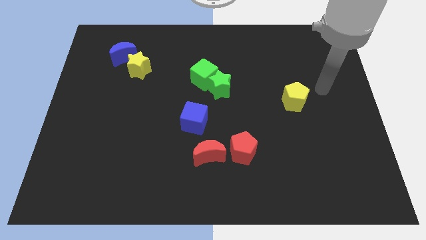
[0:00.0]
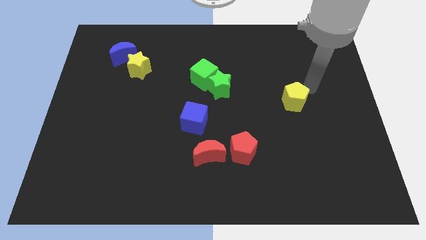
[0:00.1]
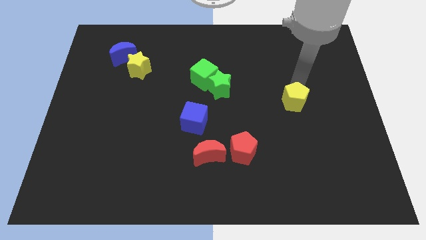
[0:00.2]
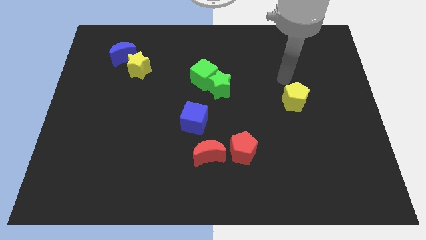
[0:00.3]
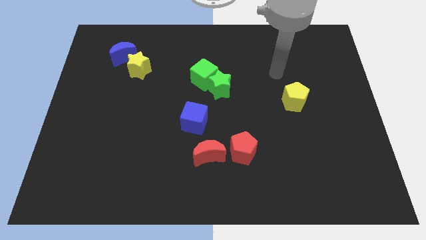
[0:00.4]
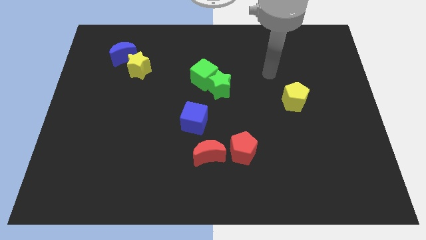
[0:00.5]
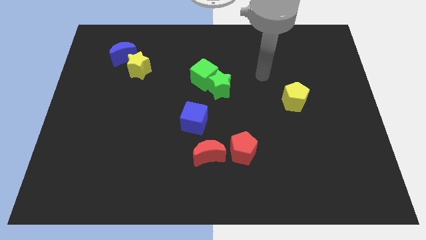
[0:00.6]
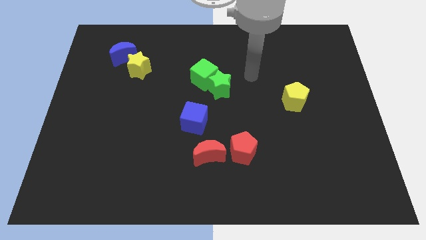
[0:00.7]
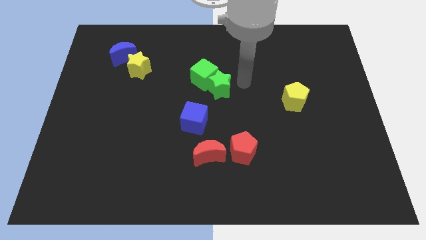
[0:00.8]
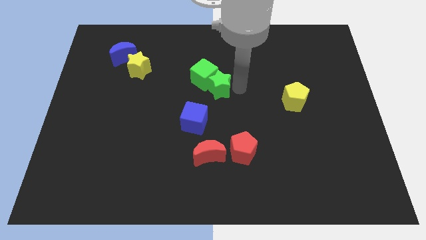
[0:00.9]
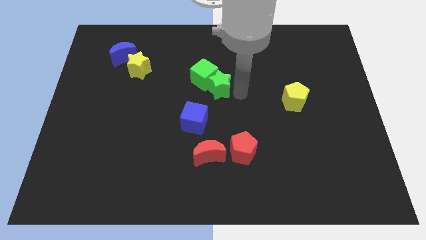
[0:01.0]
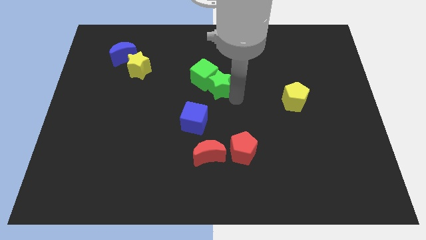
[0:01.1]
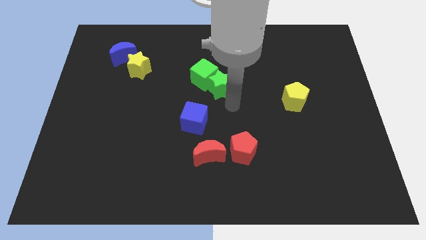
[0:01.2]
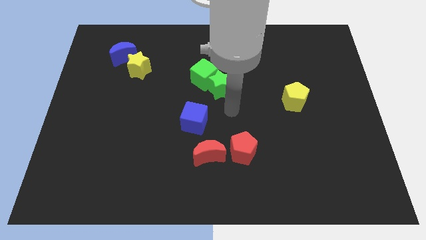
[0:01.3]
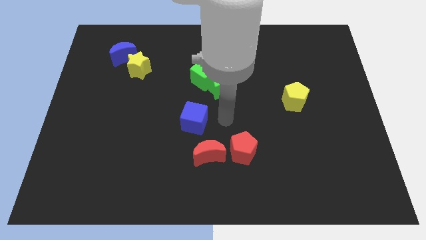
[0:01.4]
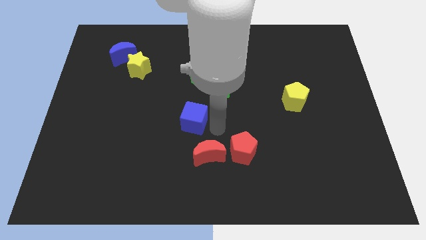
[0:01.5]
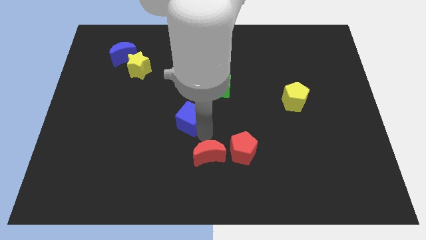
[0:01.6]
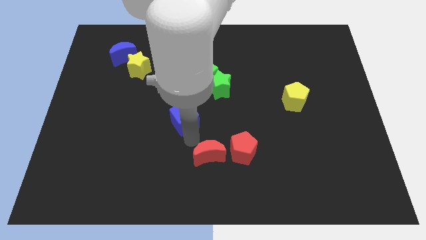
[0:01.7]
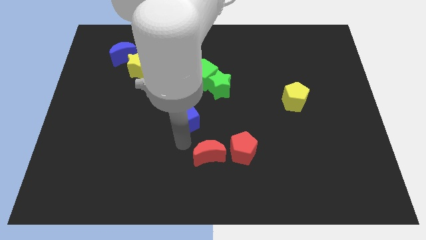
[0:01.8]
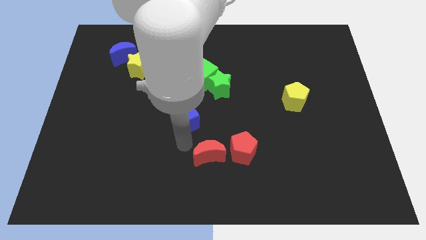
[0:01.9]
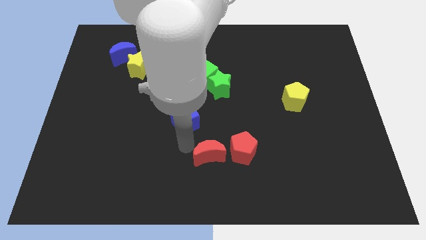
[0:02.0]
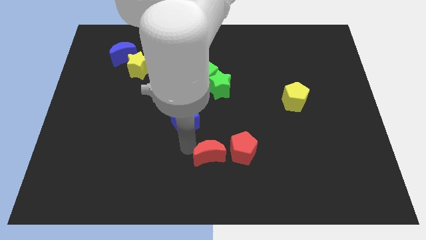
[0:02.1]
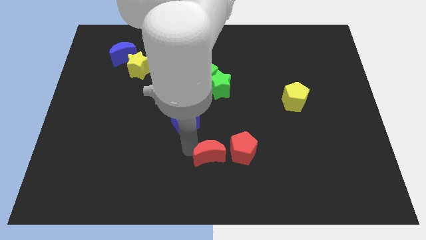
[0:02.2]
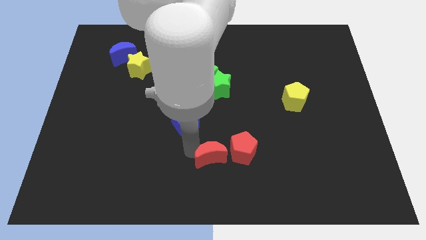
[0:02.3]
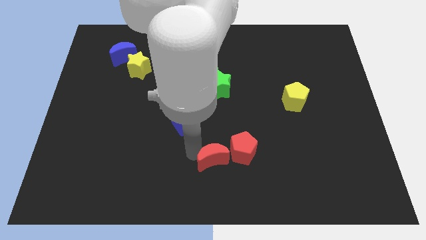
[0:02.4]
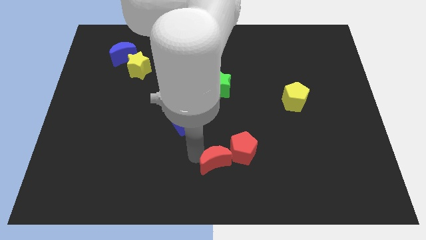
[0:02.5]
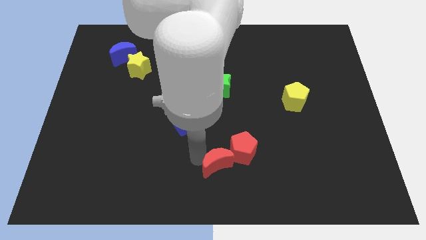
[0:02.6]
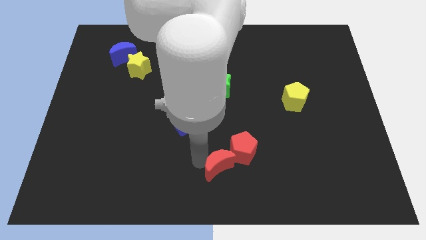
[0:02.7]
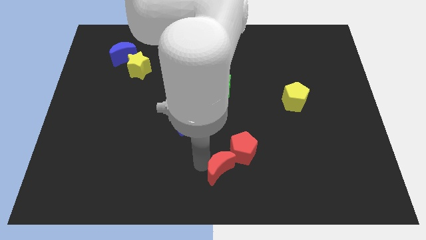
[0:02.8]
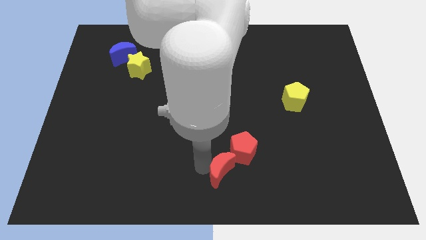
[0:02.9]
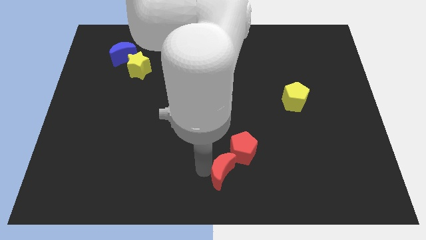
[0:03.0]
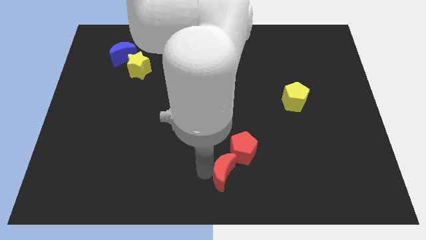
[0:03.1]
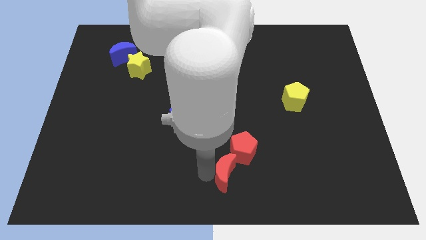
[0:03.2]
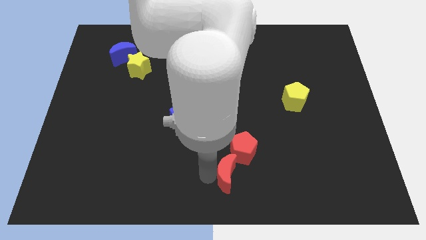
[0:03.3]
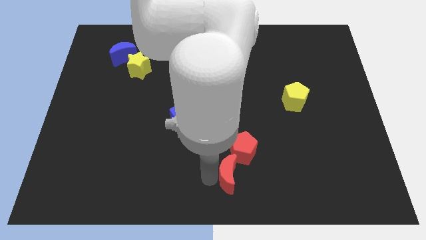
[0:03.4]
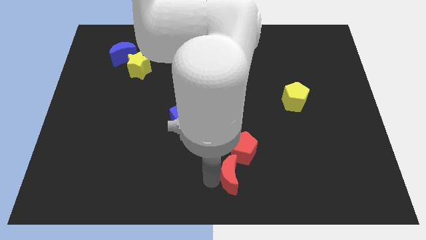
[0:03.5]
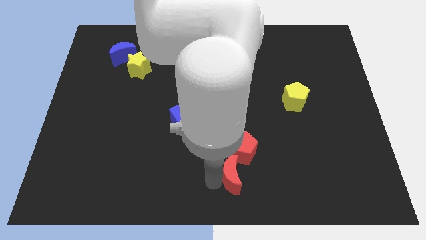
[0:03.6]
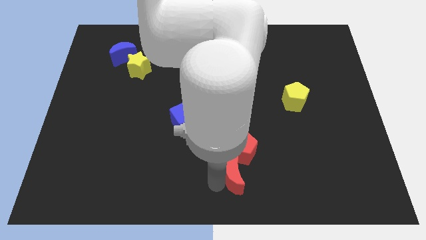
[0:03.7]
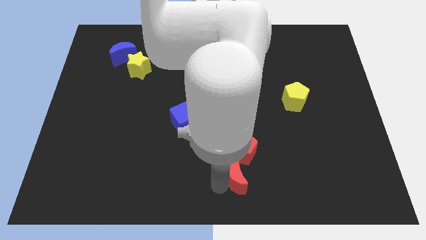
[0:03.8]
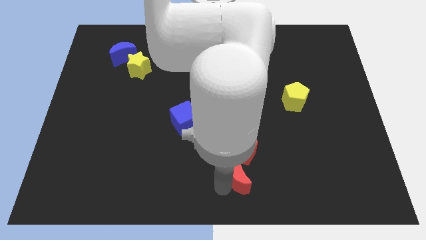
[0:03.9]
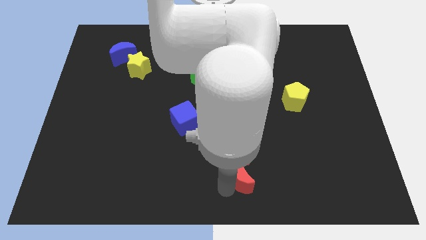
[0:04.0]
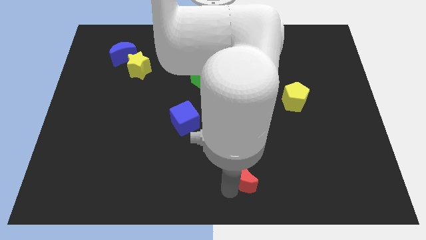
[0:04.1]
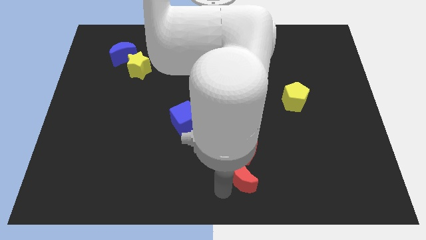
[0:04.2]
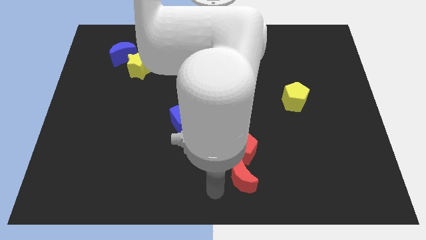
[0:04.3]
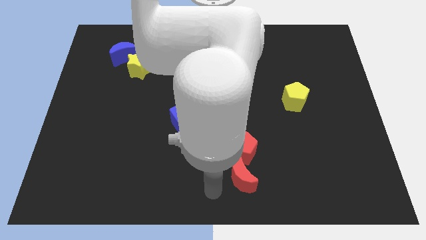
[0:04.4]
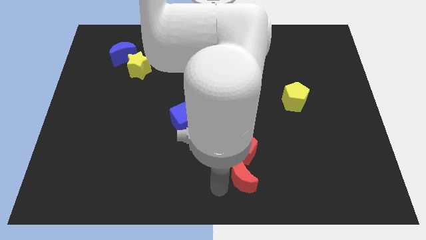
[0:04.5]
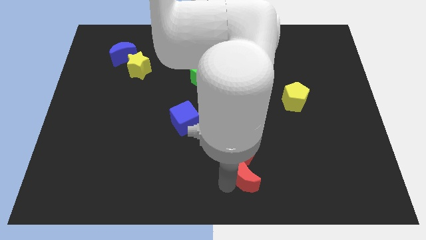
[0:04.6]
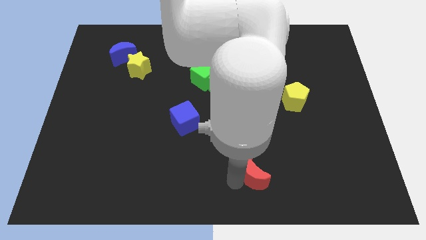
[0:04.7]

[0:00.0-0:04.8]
move the red moon a little right

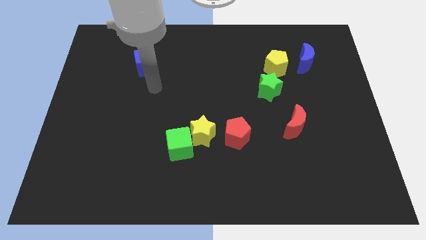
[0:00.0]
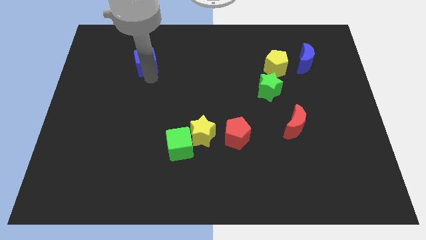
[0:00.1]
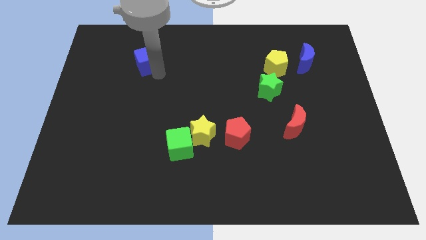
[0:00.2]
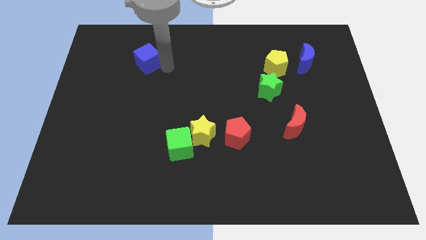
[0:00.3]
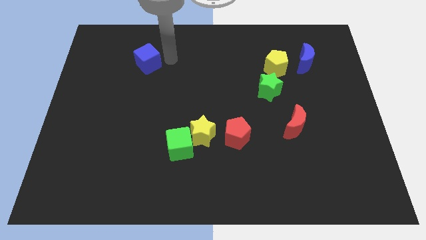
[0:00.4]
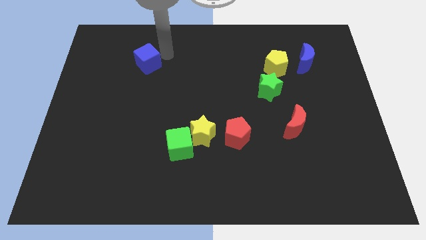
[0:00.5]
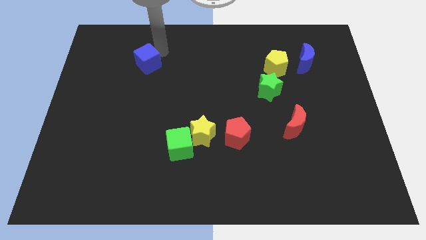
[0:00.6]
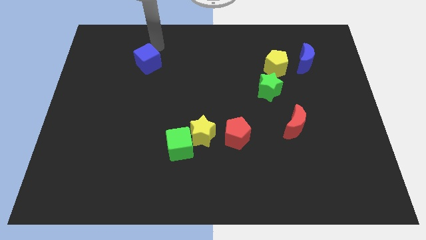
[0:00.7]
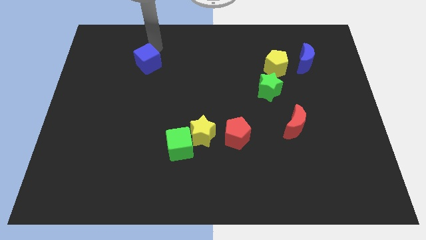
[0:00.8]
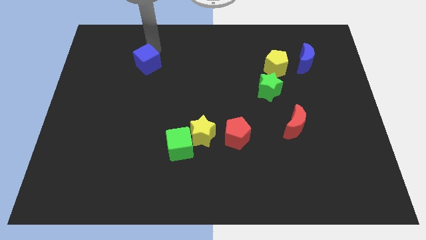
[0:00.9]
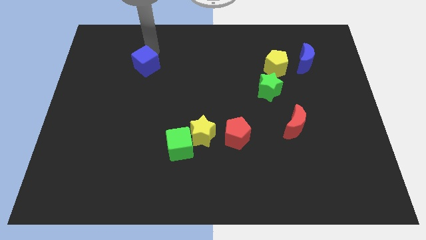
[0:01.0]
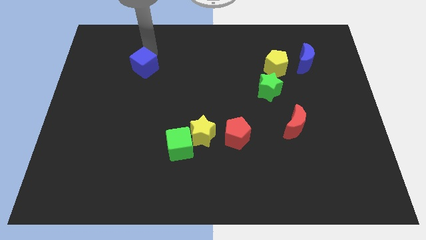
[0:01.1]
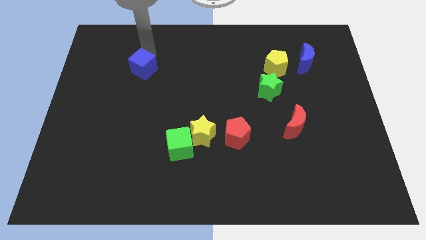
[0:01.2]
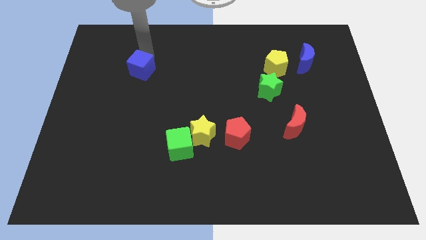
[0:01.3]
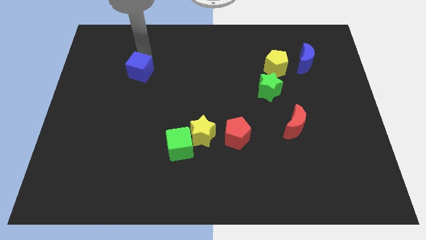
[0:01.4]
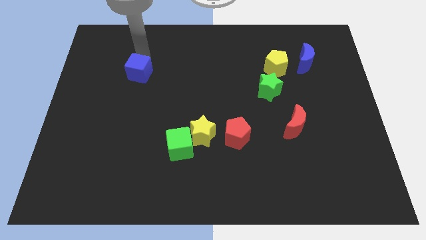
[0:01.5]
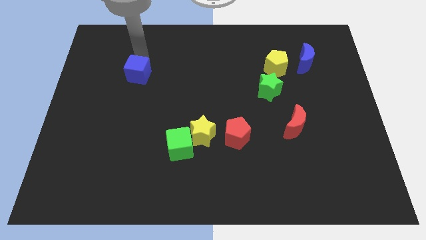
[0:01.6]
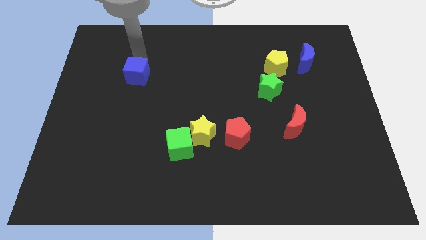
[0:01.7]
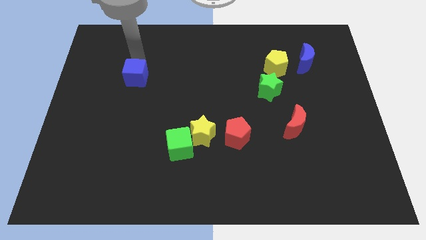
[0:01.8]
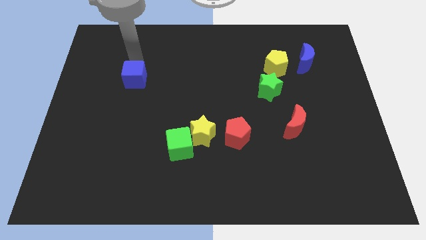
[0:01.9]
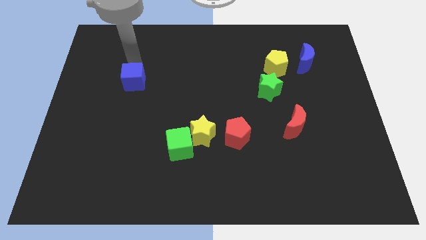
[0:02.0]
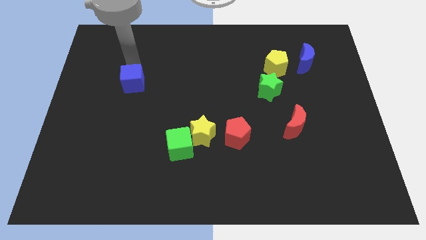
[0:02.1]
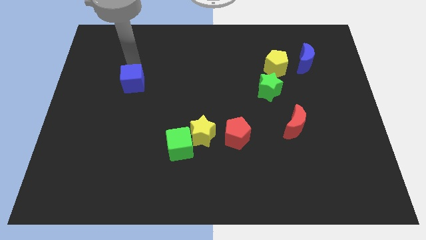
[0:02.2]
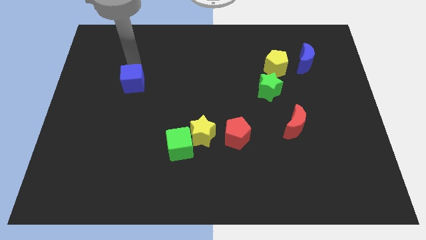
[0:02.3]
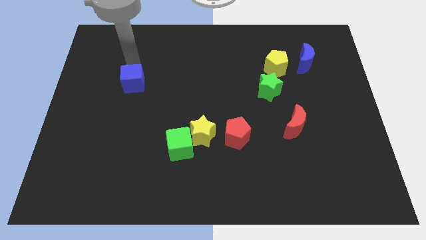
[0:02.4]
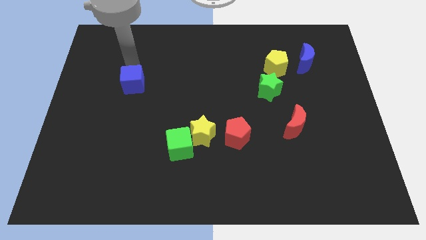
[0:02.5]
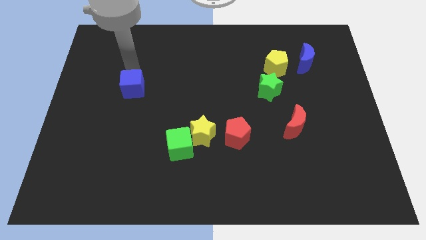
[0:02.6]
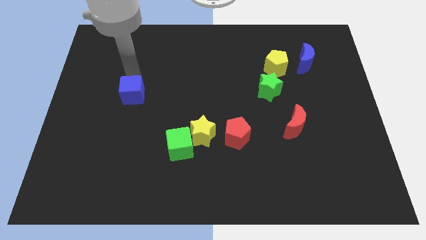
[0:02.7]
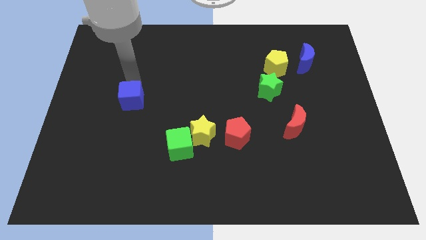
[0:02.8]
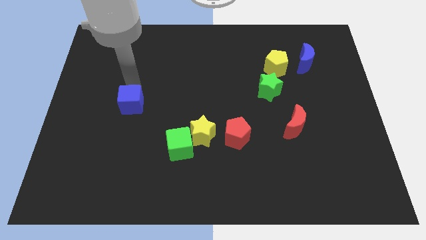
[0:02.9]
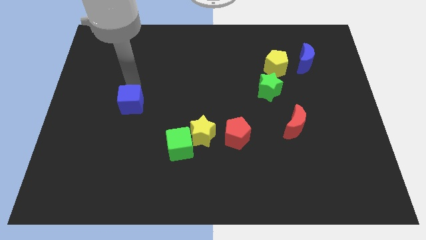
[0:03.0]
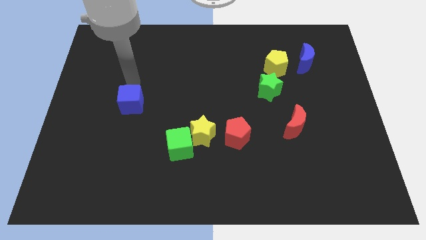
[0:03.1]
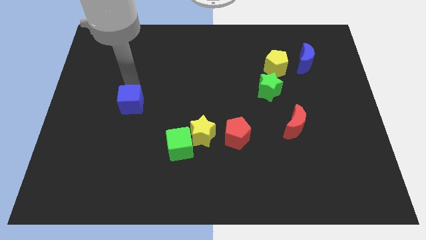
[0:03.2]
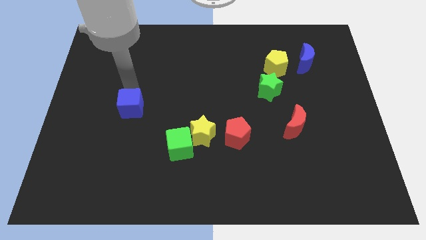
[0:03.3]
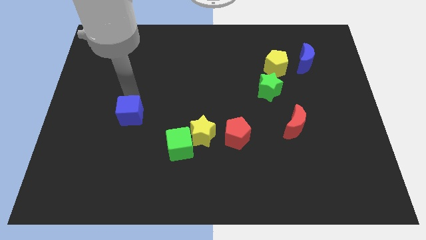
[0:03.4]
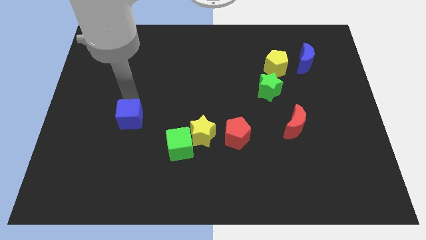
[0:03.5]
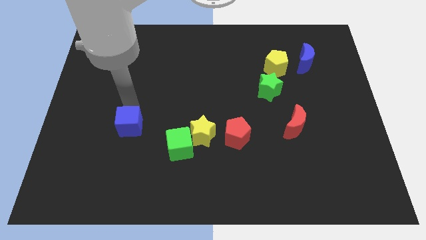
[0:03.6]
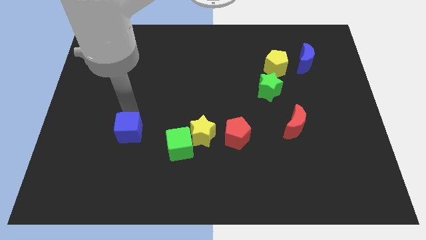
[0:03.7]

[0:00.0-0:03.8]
push the blue cube downwards
